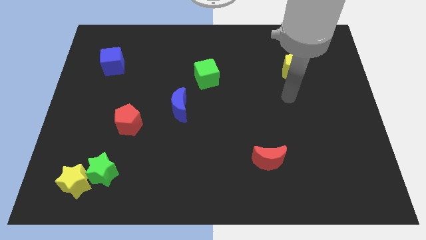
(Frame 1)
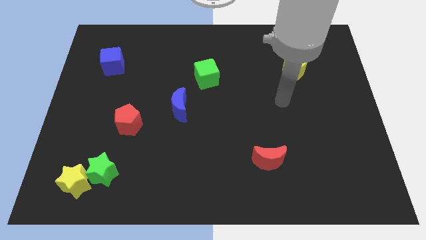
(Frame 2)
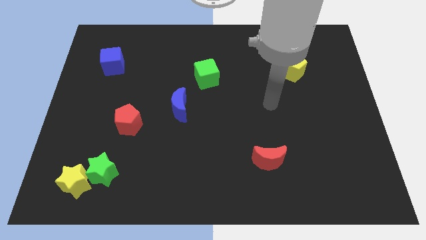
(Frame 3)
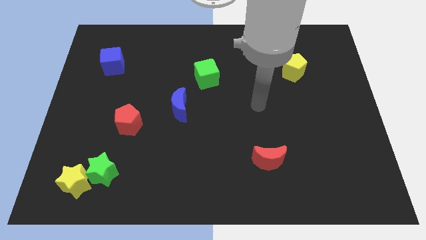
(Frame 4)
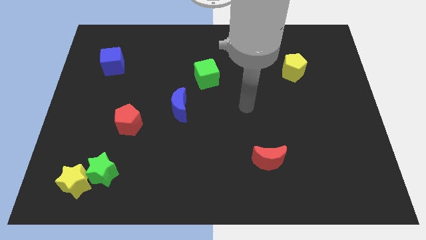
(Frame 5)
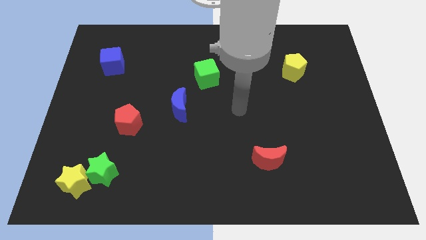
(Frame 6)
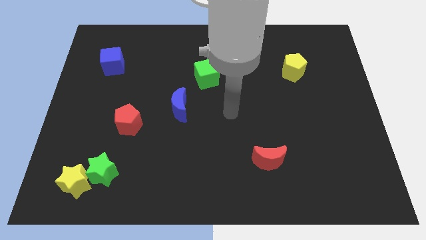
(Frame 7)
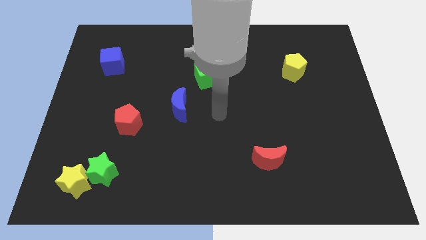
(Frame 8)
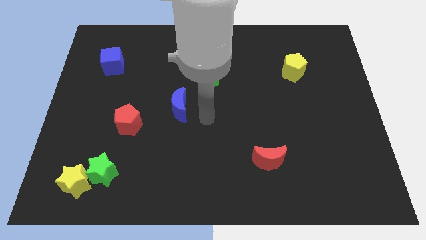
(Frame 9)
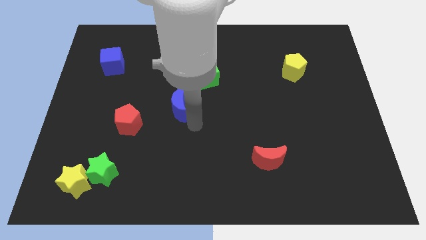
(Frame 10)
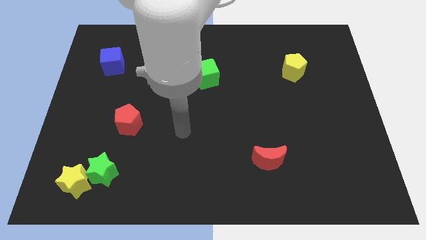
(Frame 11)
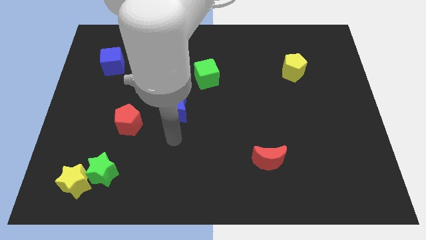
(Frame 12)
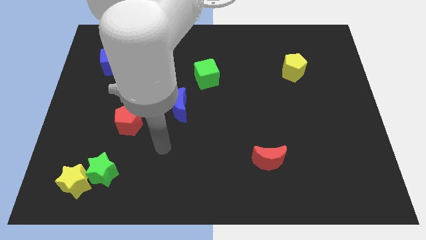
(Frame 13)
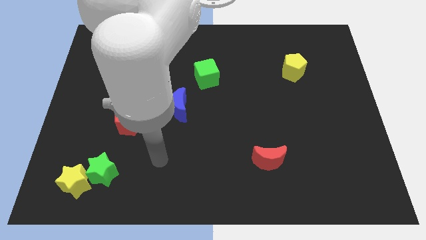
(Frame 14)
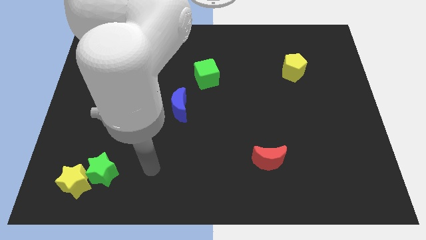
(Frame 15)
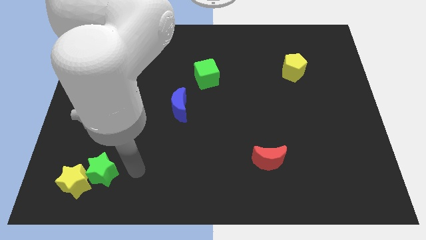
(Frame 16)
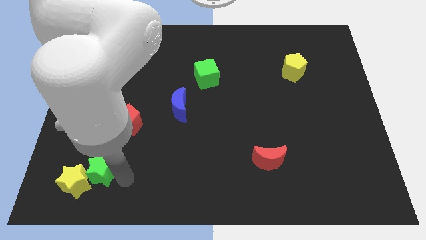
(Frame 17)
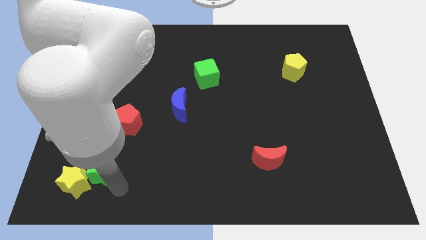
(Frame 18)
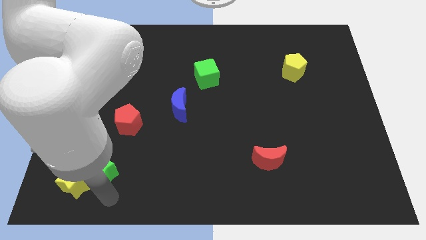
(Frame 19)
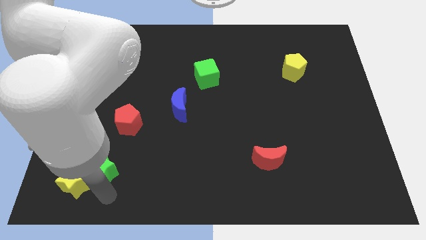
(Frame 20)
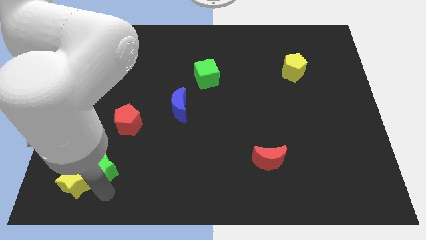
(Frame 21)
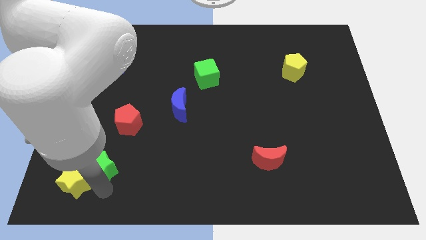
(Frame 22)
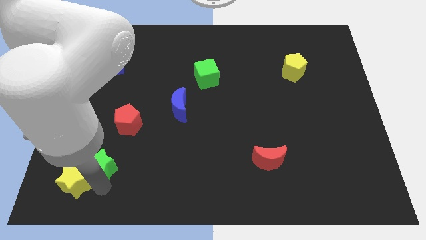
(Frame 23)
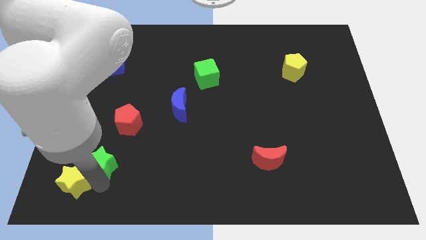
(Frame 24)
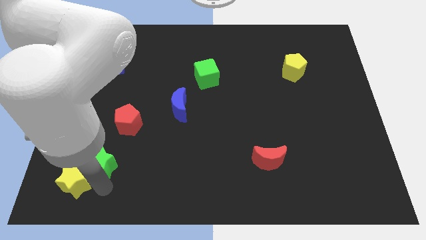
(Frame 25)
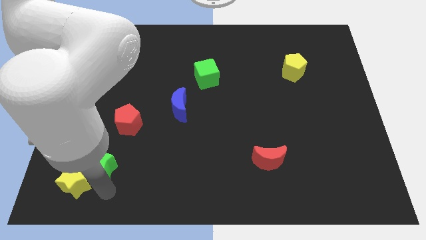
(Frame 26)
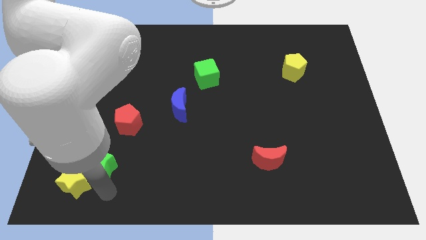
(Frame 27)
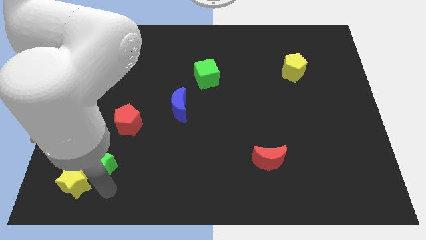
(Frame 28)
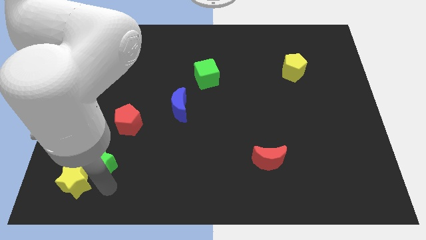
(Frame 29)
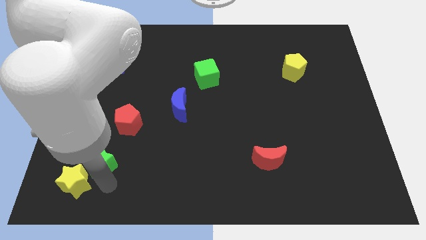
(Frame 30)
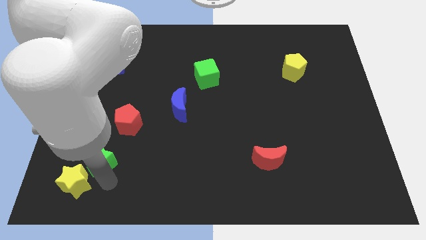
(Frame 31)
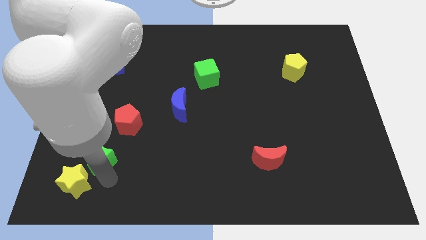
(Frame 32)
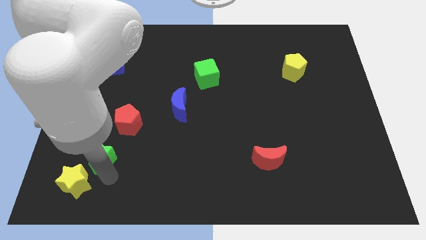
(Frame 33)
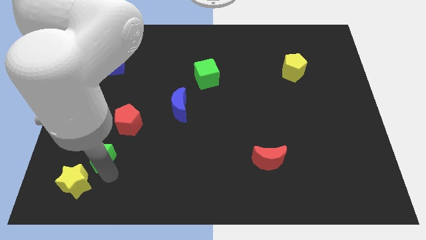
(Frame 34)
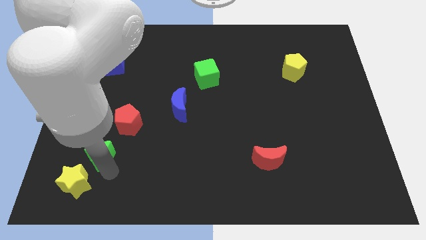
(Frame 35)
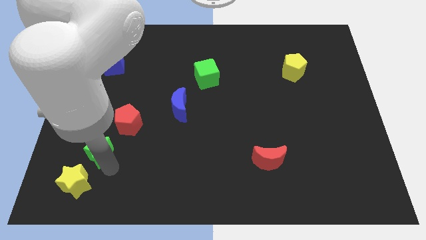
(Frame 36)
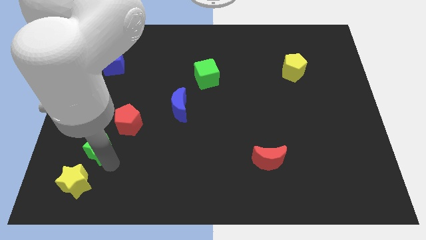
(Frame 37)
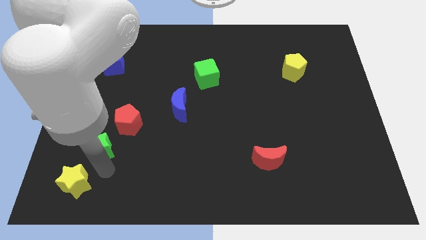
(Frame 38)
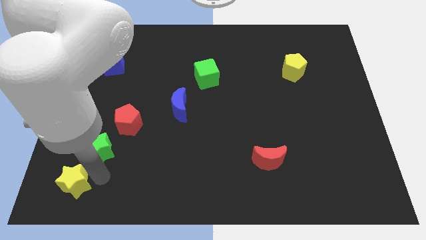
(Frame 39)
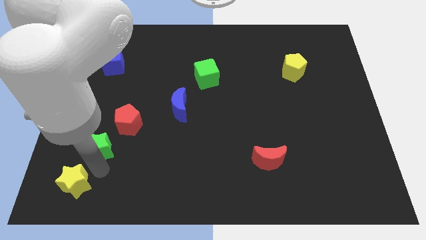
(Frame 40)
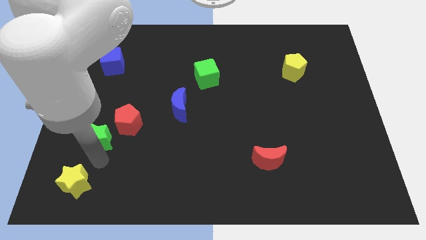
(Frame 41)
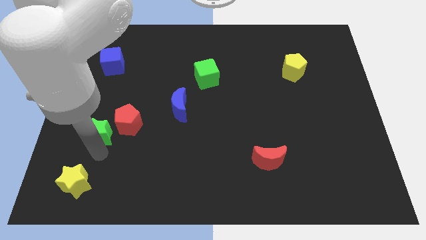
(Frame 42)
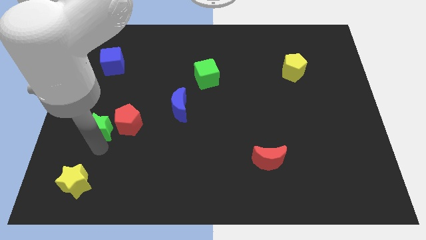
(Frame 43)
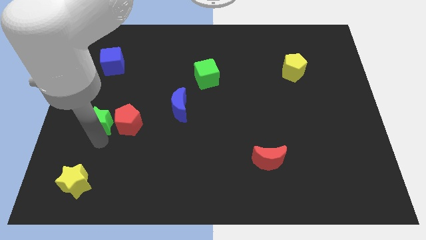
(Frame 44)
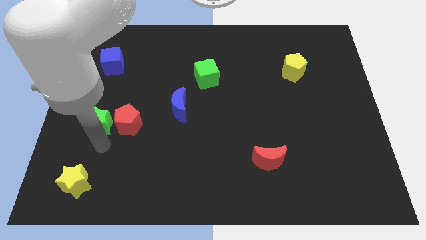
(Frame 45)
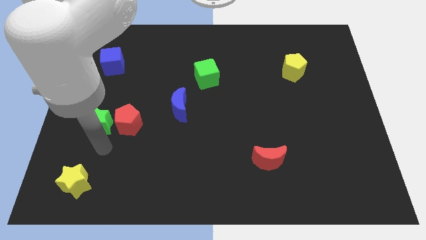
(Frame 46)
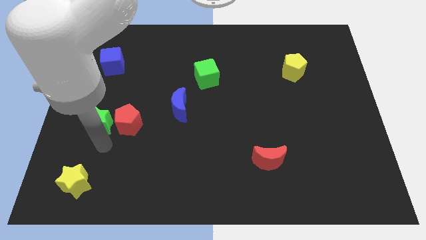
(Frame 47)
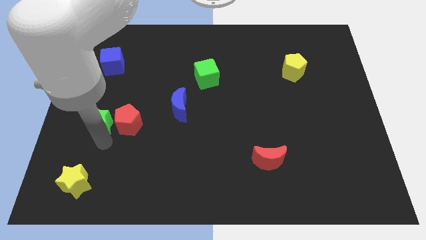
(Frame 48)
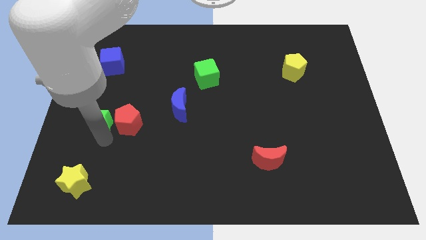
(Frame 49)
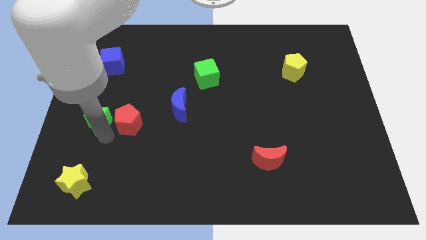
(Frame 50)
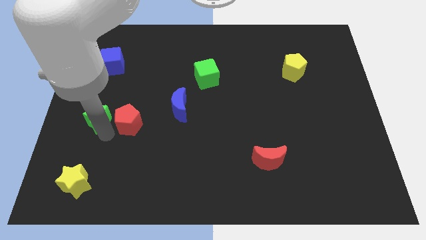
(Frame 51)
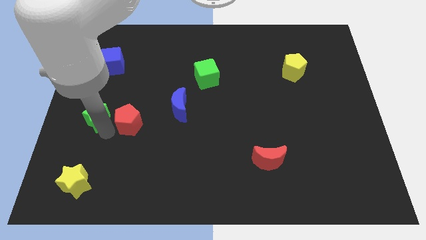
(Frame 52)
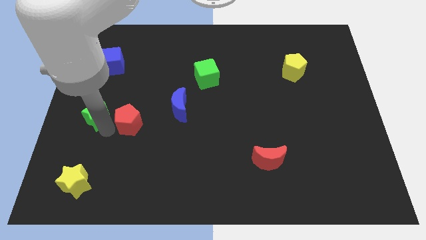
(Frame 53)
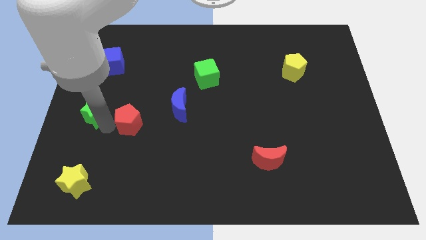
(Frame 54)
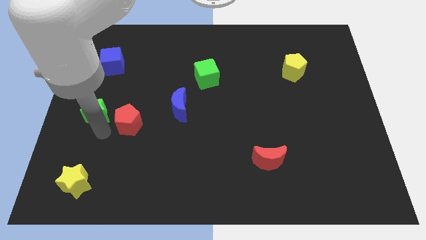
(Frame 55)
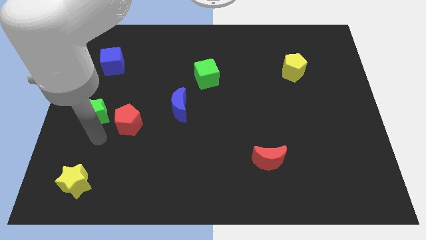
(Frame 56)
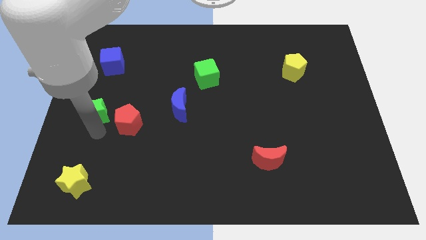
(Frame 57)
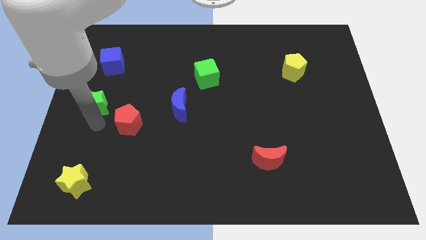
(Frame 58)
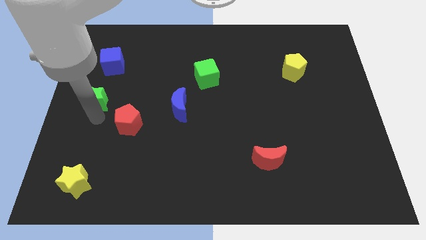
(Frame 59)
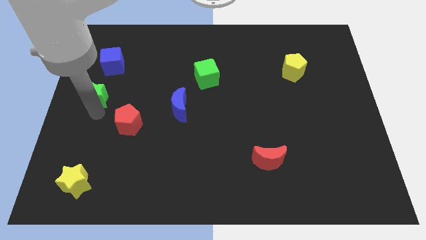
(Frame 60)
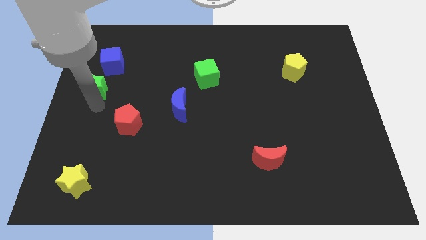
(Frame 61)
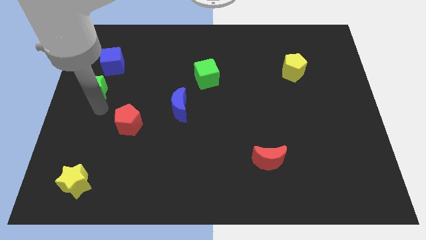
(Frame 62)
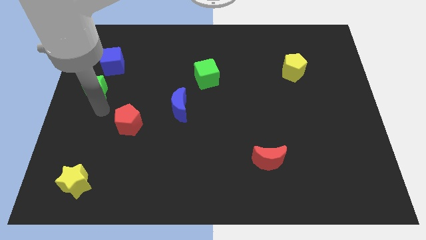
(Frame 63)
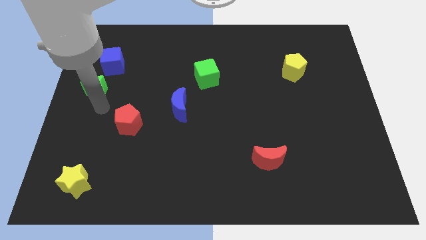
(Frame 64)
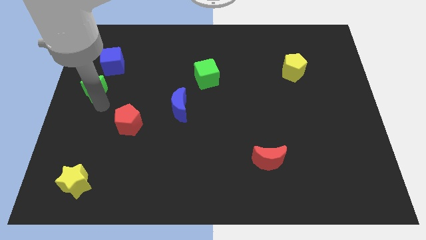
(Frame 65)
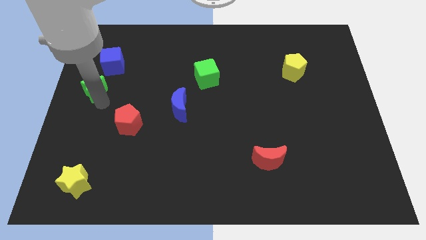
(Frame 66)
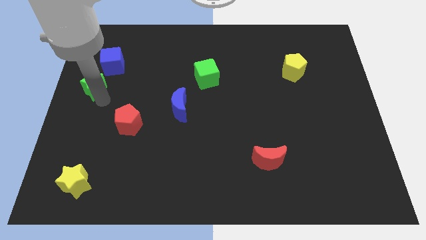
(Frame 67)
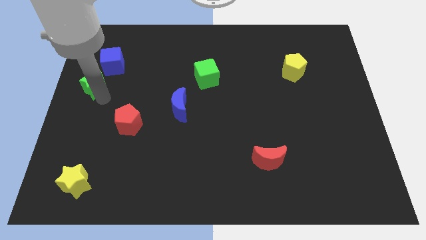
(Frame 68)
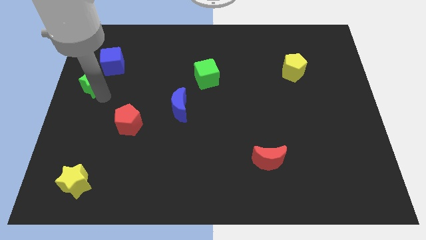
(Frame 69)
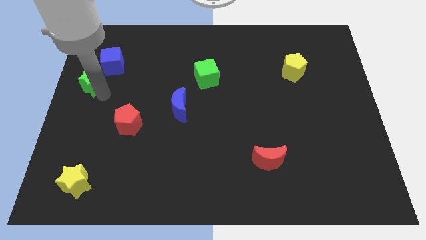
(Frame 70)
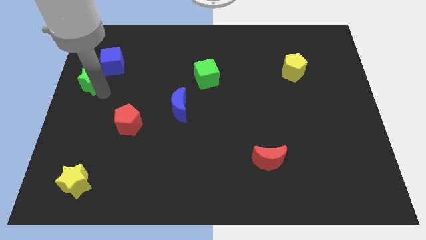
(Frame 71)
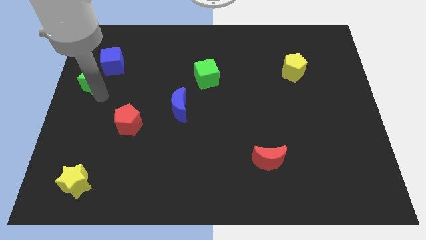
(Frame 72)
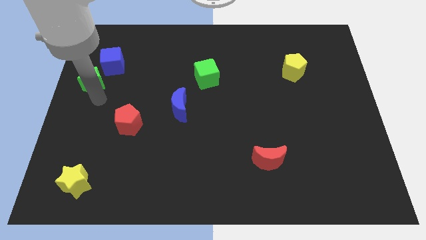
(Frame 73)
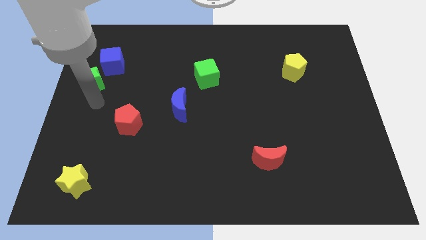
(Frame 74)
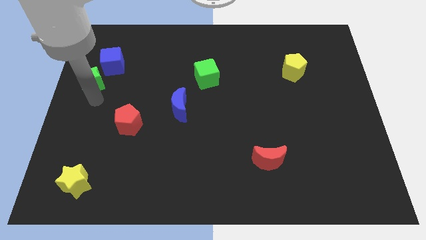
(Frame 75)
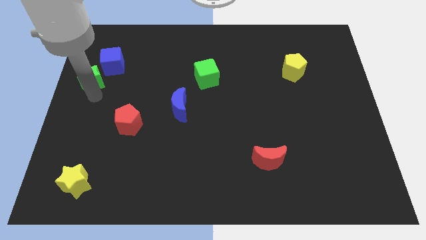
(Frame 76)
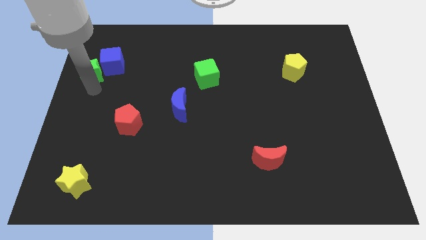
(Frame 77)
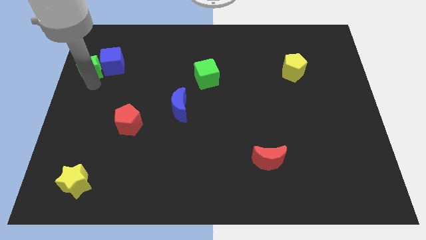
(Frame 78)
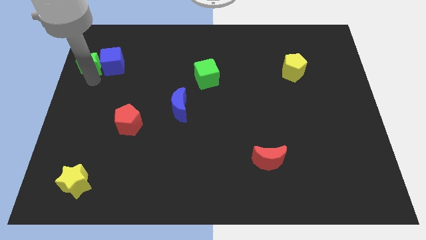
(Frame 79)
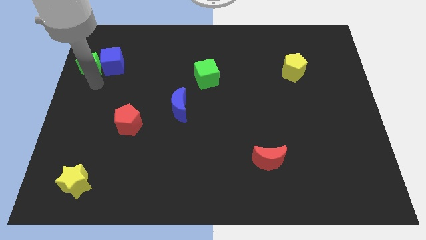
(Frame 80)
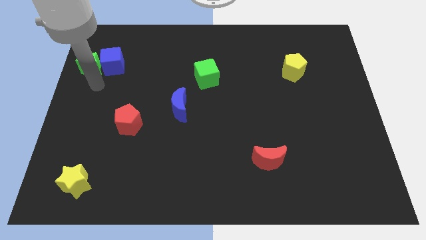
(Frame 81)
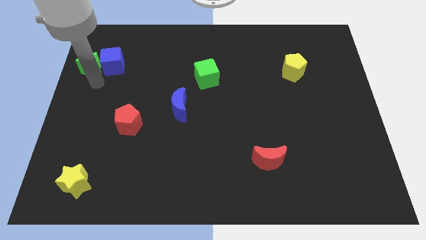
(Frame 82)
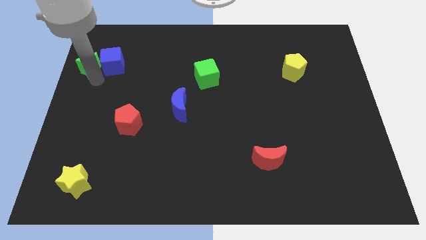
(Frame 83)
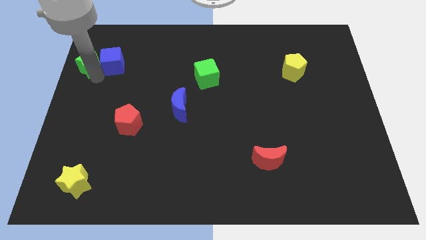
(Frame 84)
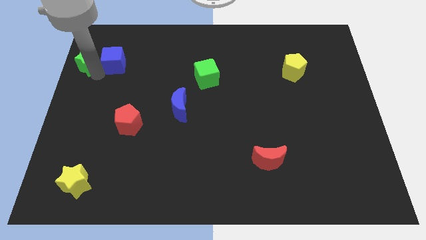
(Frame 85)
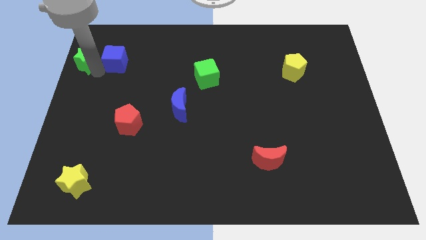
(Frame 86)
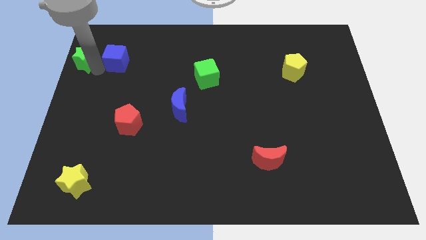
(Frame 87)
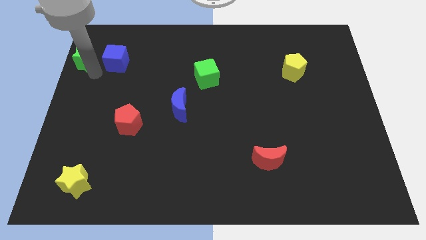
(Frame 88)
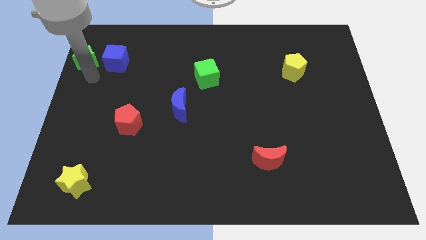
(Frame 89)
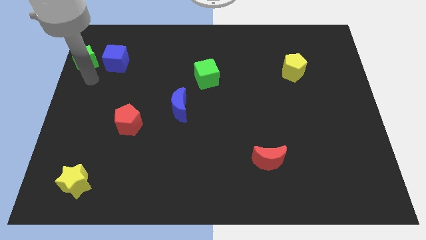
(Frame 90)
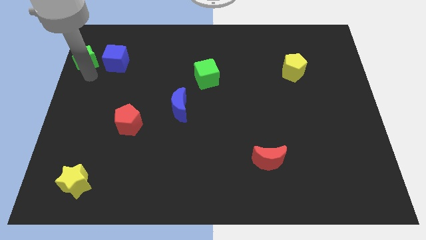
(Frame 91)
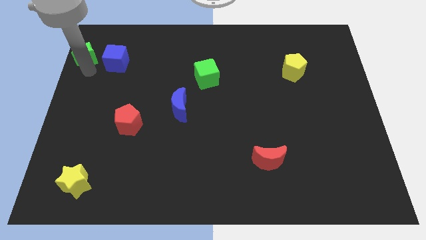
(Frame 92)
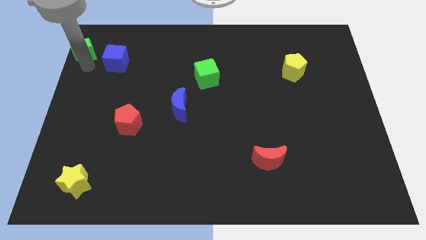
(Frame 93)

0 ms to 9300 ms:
put the green star to the top left corner
